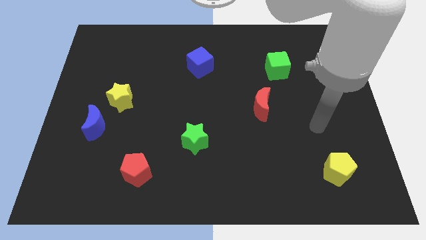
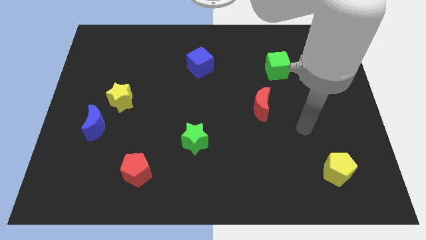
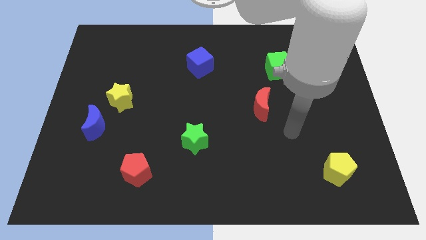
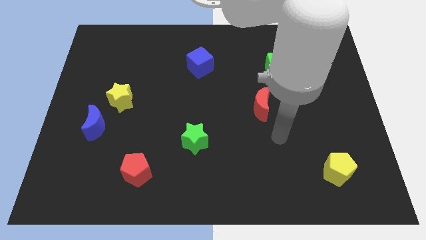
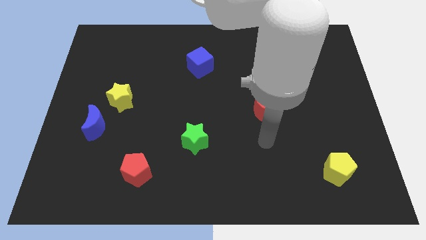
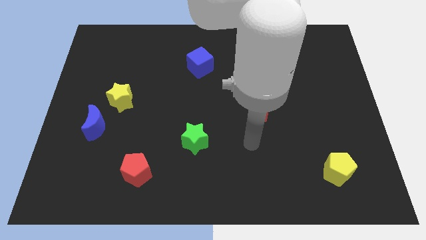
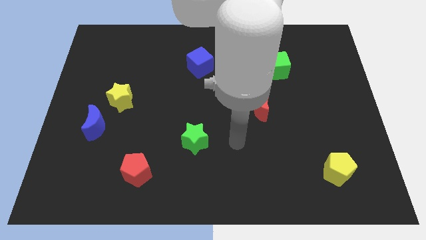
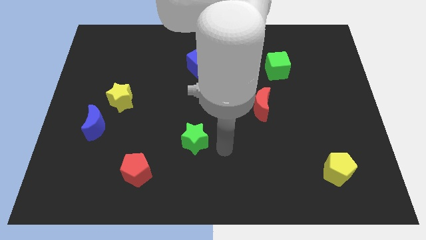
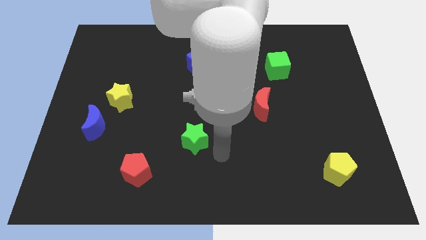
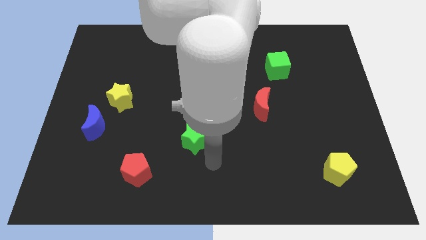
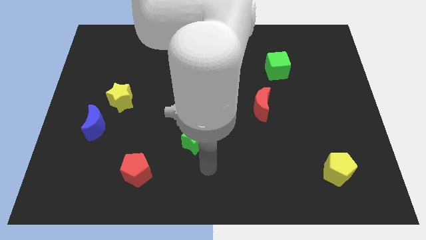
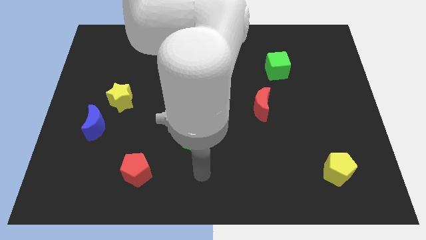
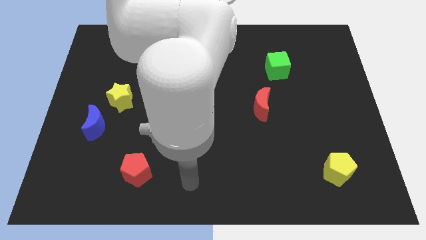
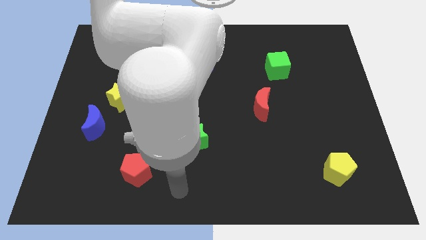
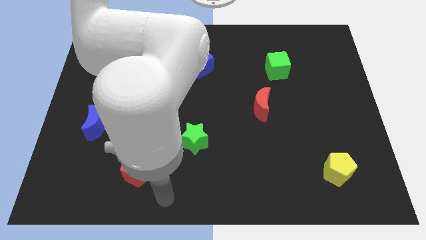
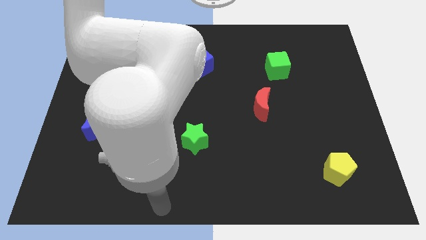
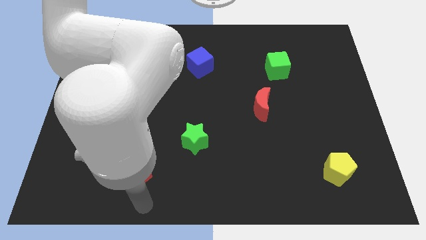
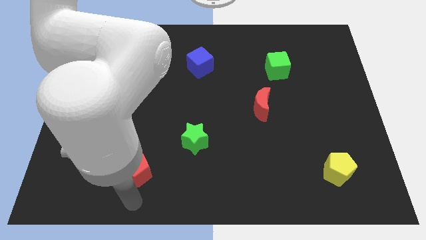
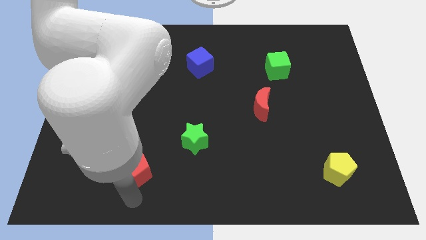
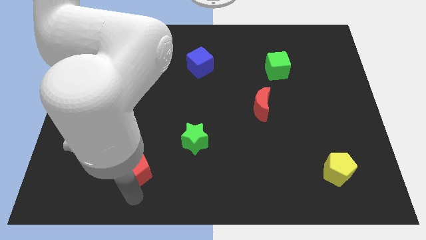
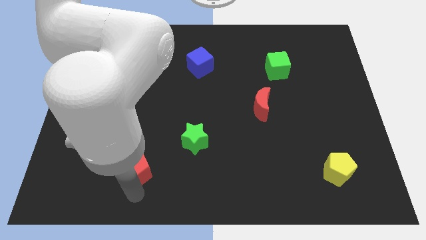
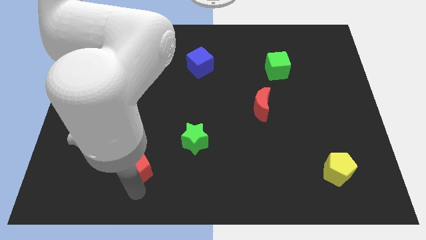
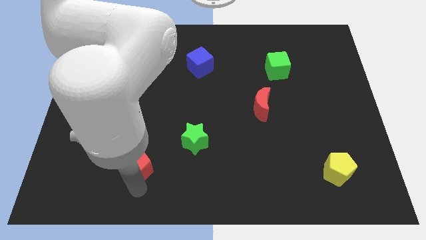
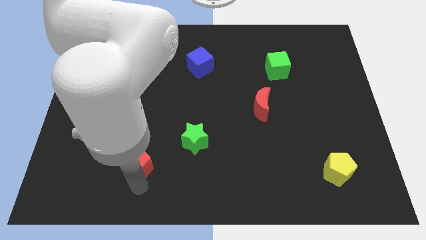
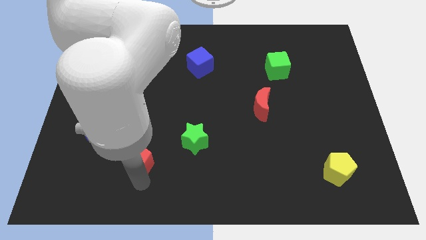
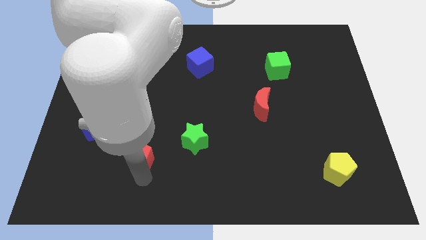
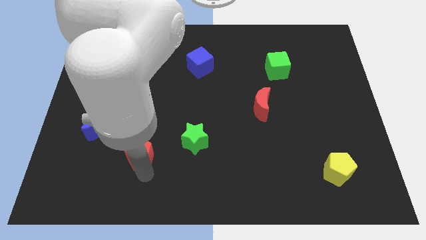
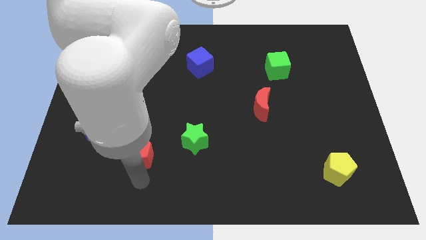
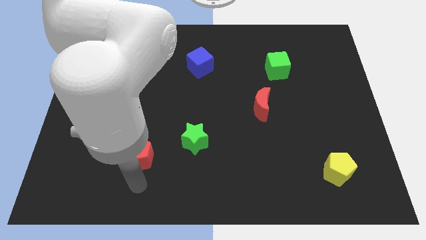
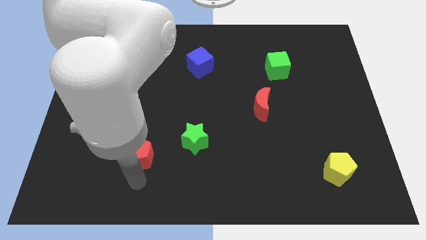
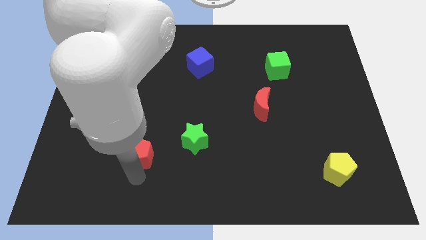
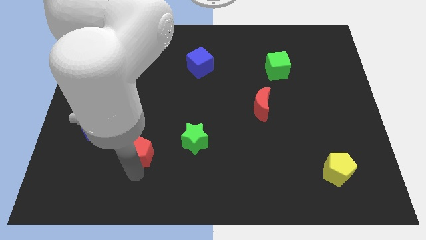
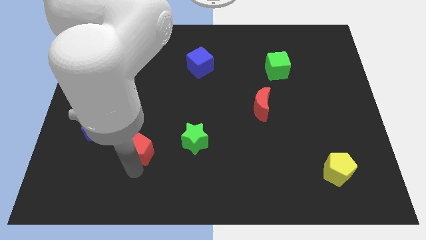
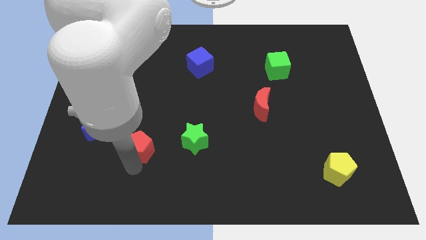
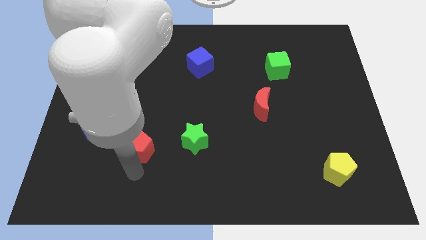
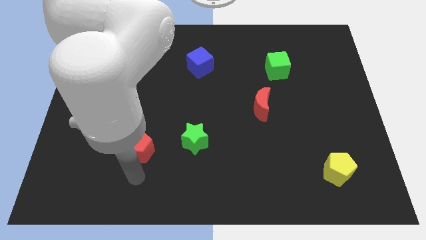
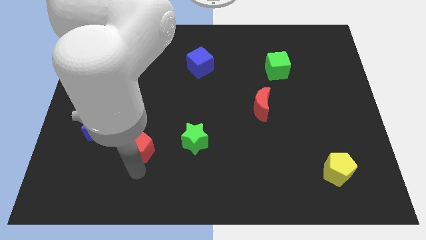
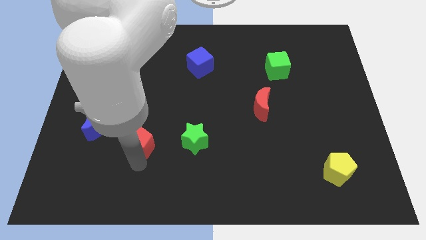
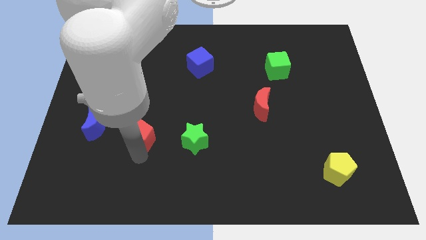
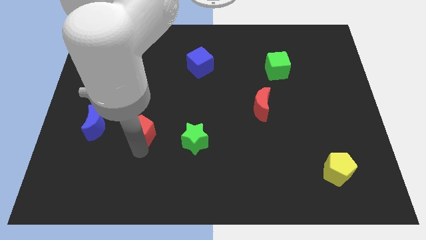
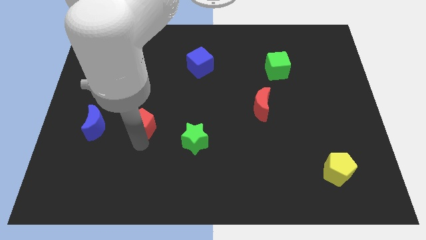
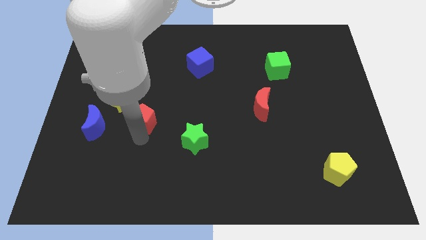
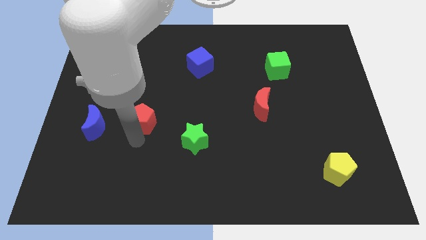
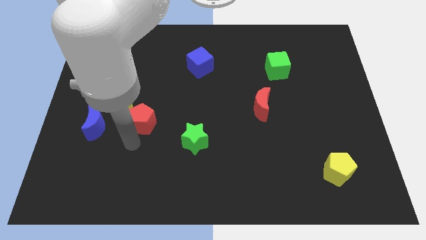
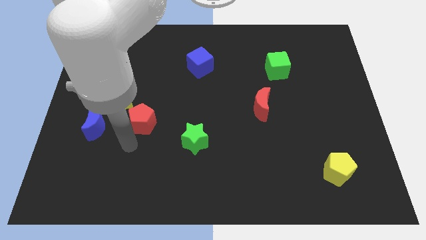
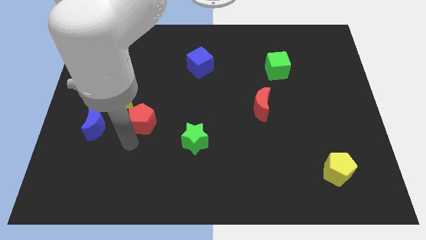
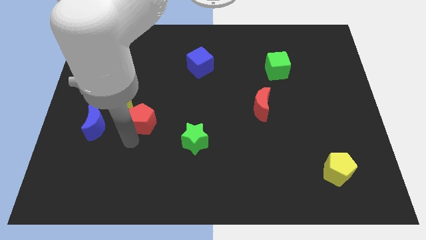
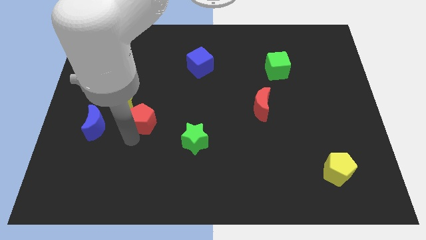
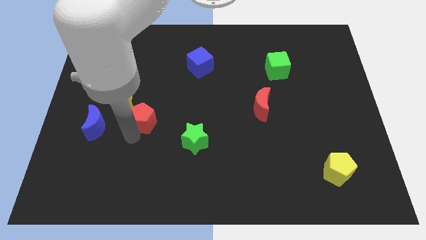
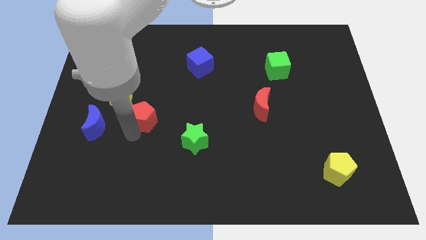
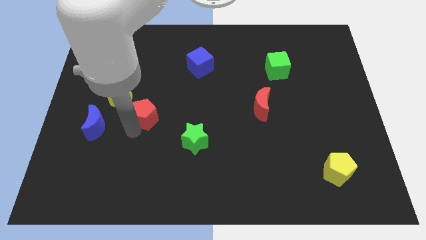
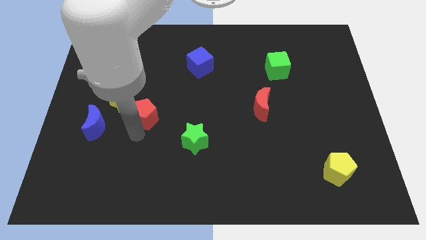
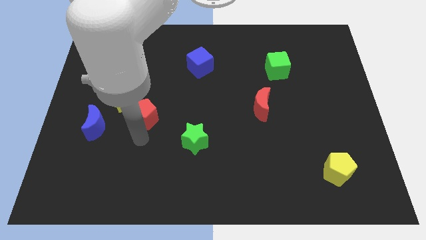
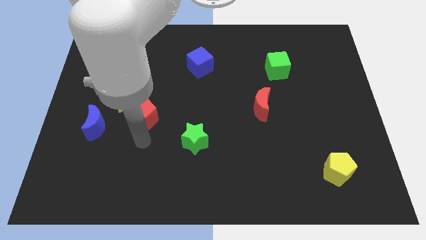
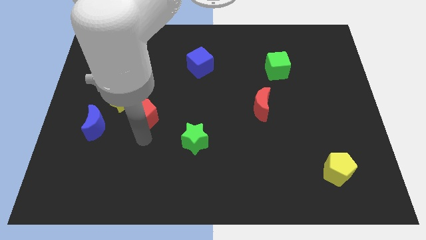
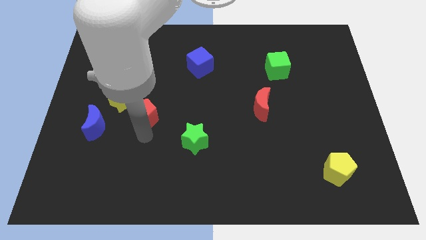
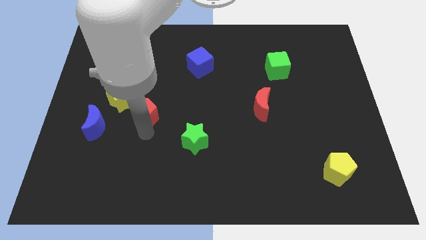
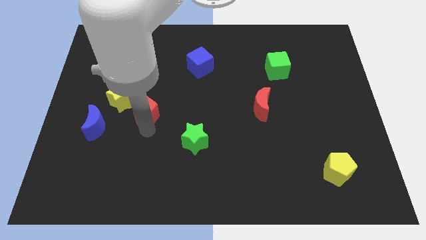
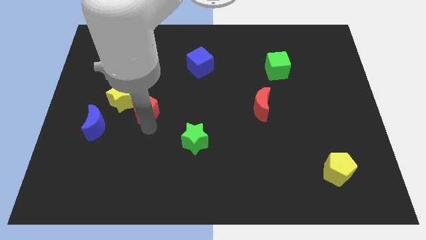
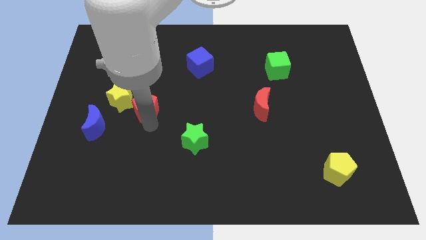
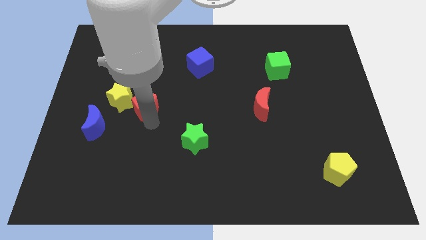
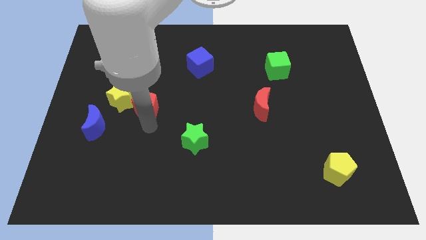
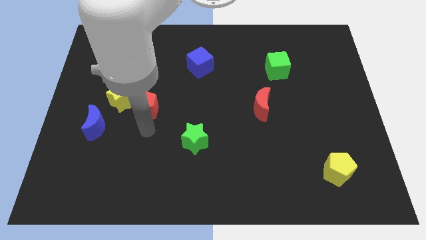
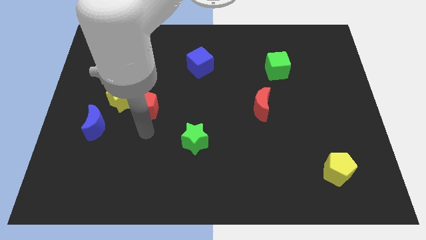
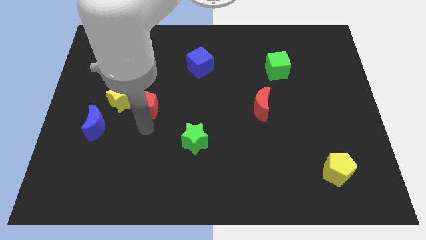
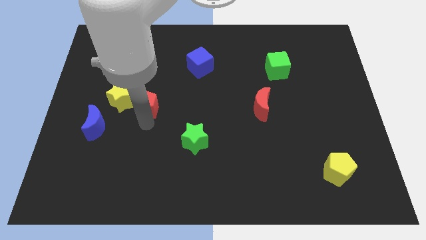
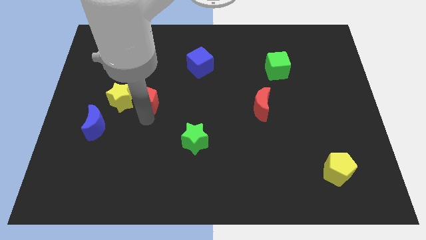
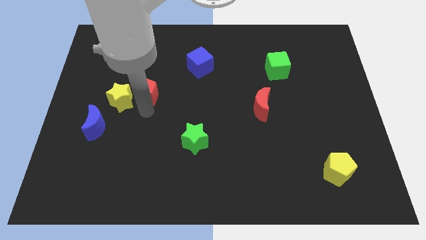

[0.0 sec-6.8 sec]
move the red pentagon upwards

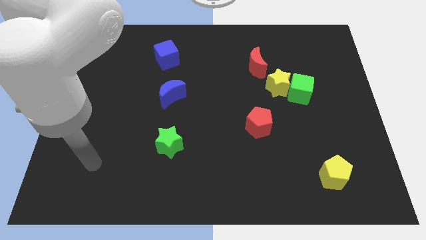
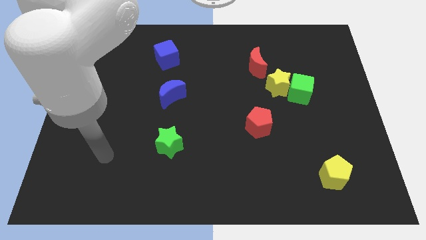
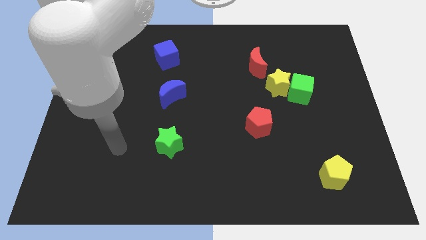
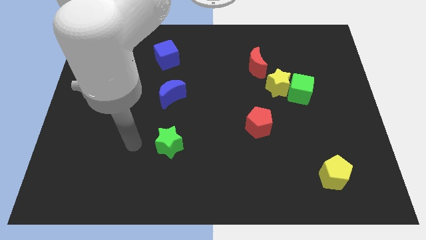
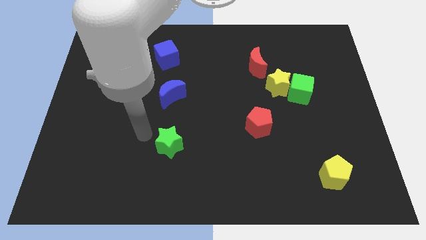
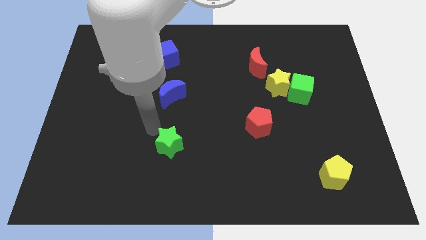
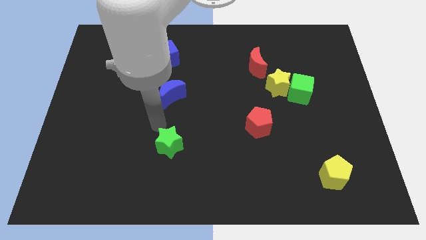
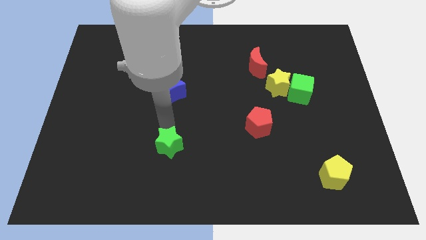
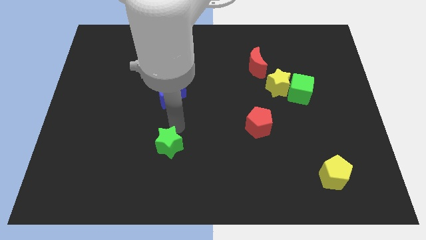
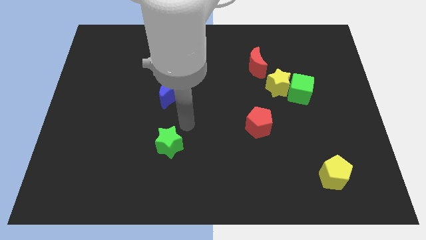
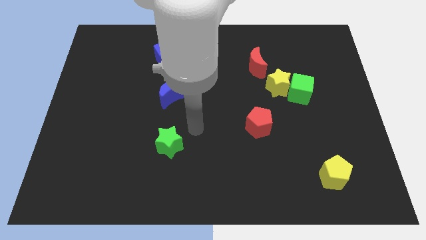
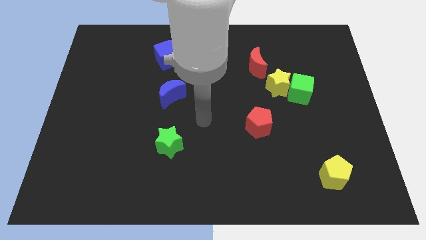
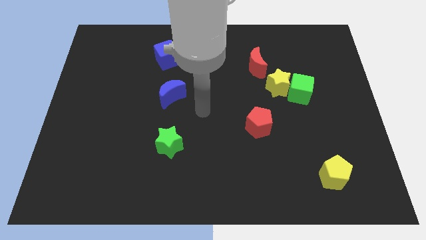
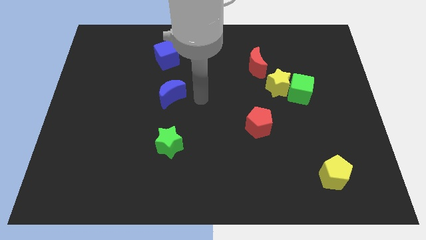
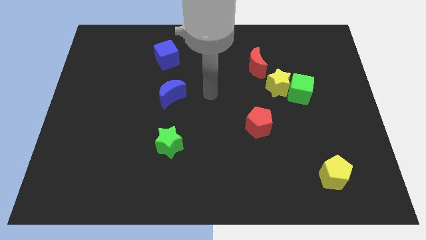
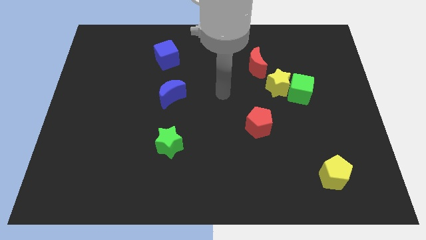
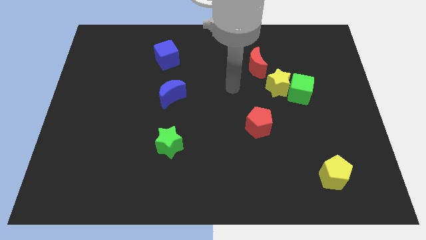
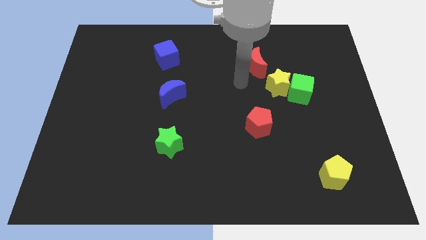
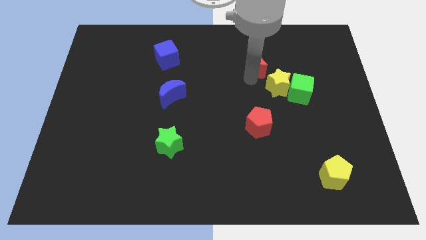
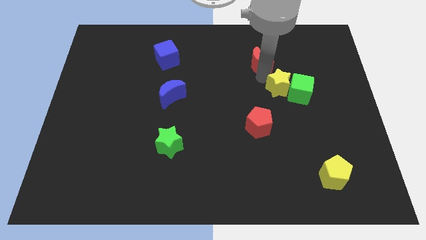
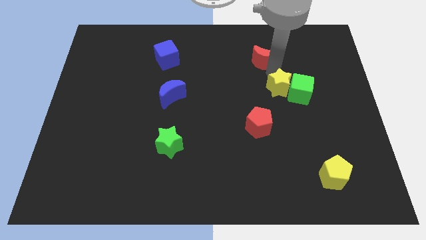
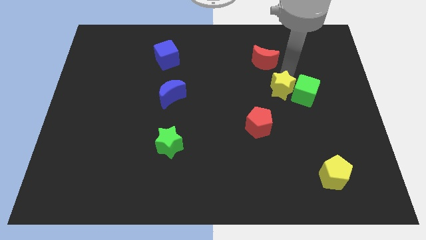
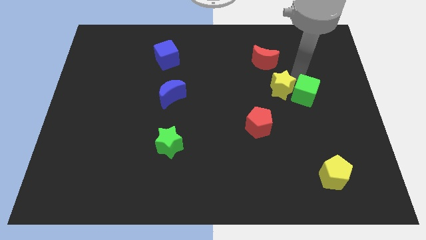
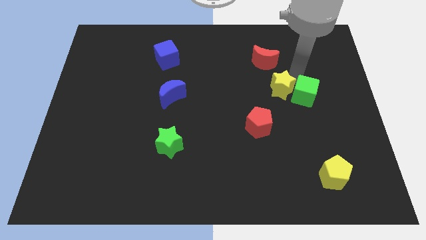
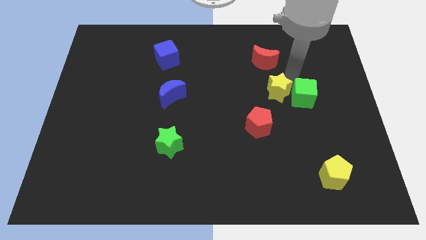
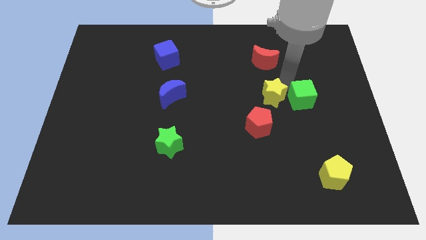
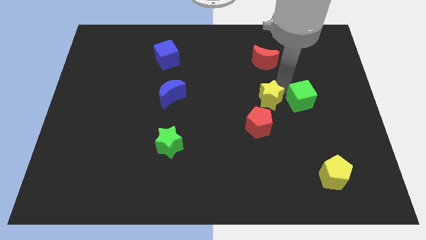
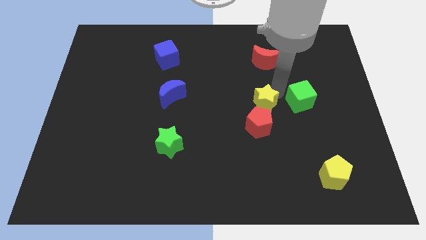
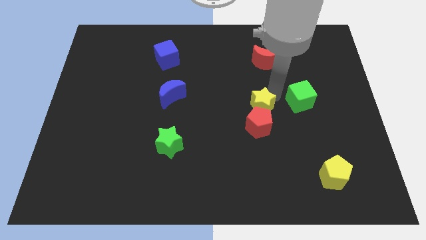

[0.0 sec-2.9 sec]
slide the yellow star downwards and to the left diagonally somewhat
